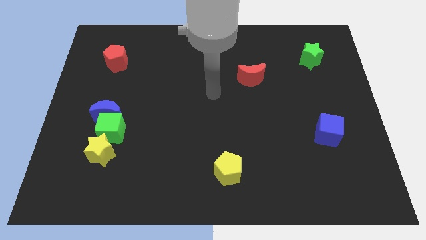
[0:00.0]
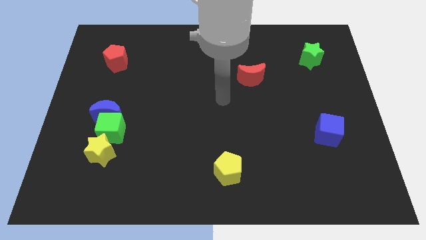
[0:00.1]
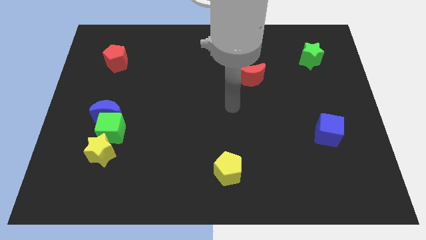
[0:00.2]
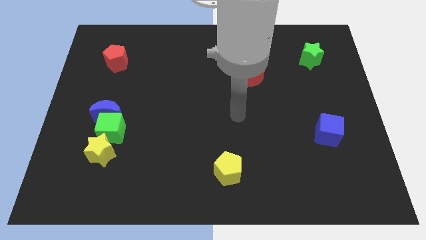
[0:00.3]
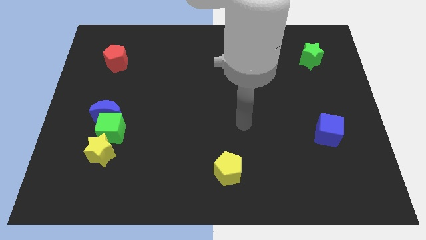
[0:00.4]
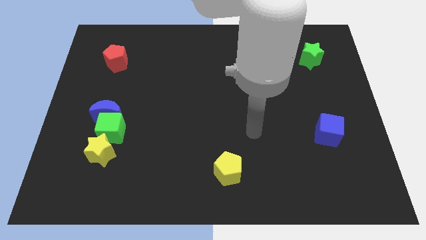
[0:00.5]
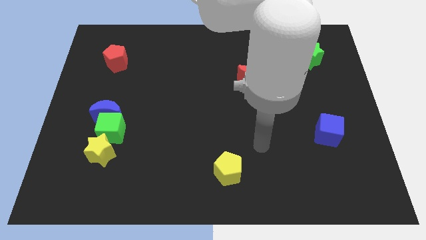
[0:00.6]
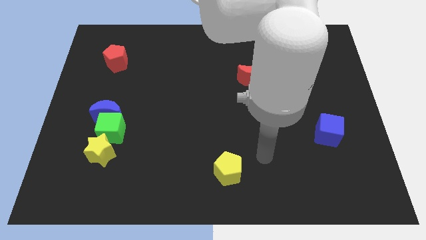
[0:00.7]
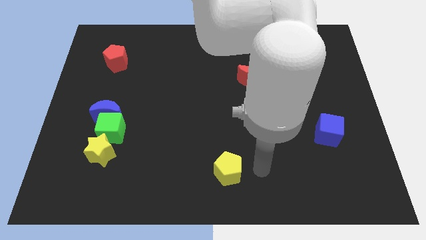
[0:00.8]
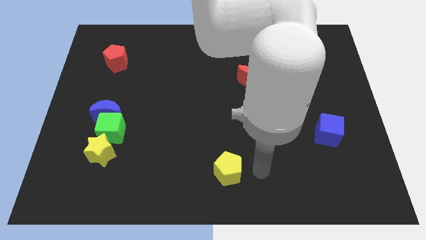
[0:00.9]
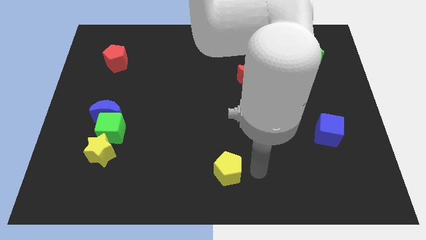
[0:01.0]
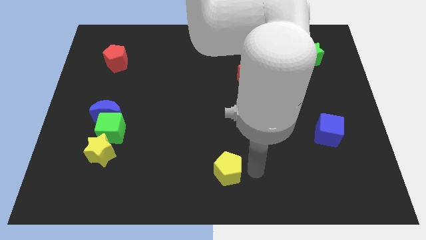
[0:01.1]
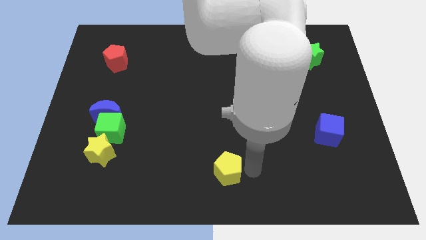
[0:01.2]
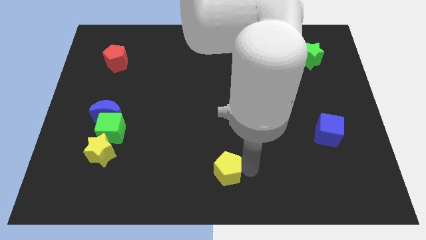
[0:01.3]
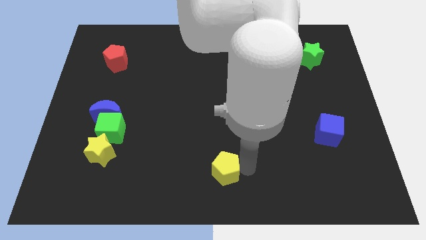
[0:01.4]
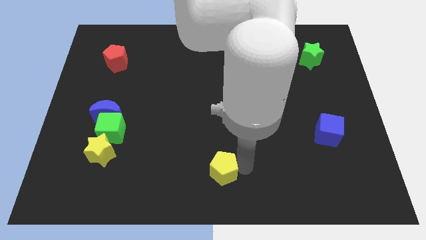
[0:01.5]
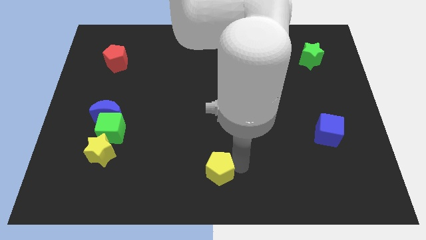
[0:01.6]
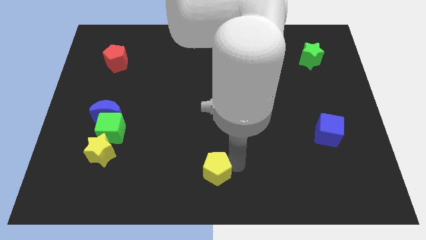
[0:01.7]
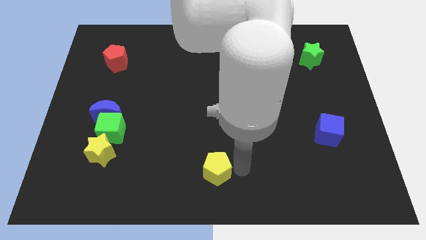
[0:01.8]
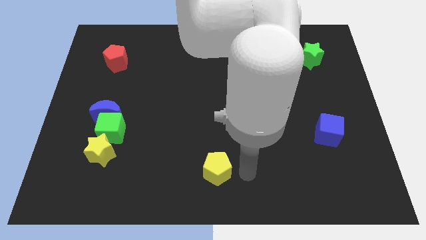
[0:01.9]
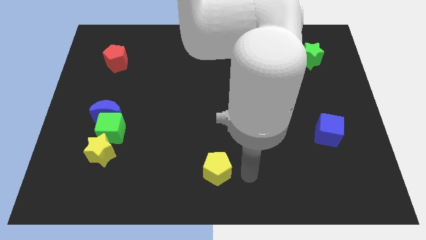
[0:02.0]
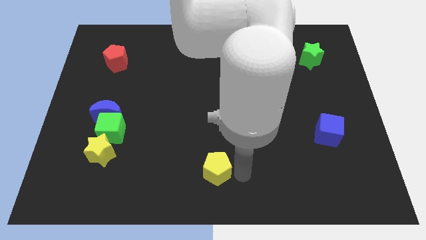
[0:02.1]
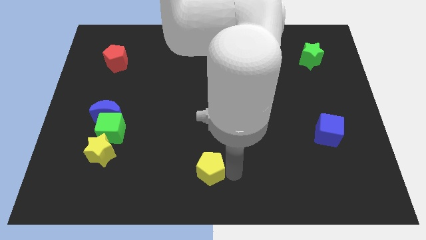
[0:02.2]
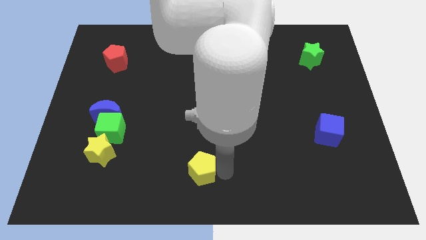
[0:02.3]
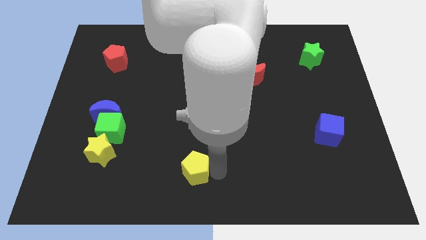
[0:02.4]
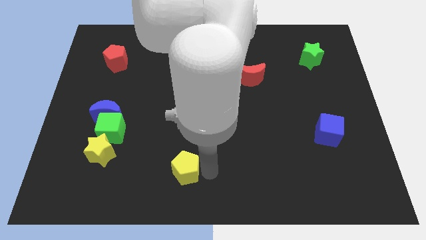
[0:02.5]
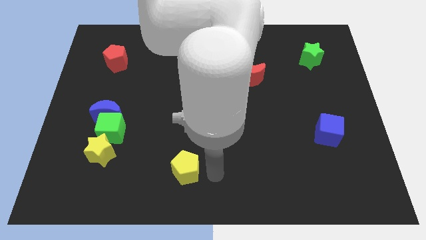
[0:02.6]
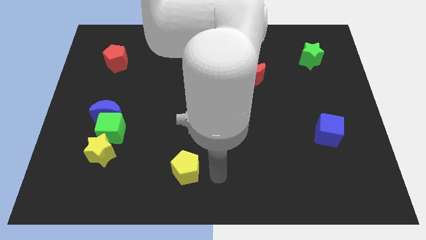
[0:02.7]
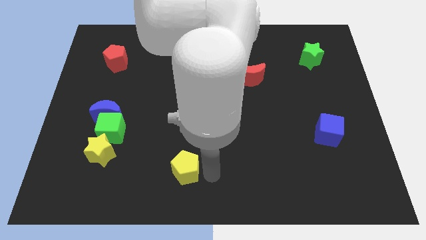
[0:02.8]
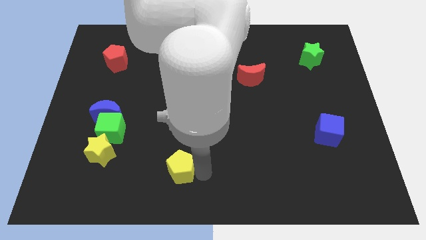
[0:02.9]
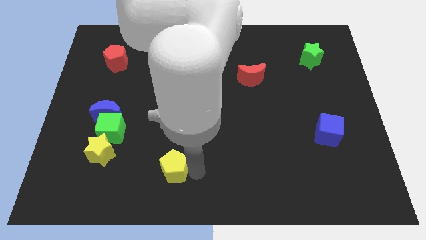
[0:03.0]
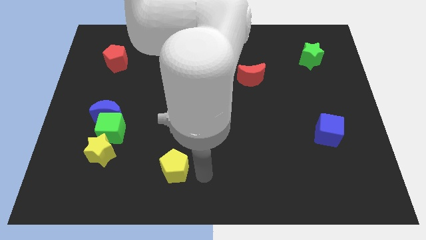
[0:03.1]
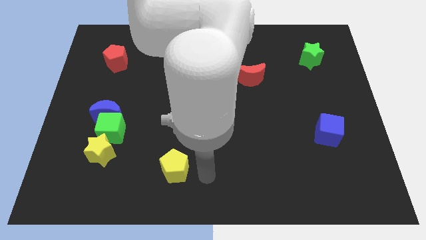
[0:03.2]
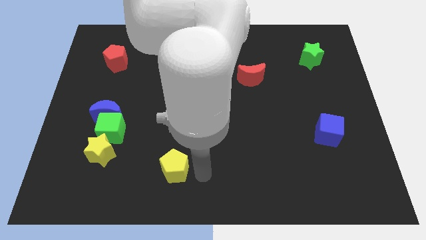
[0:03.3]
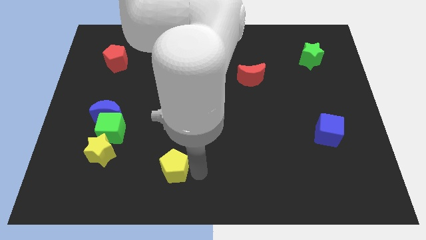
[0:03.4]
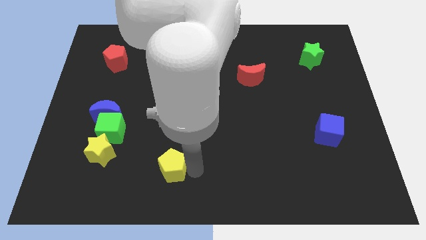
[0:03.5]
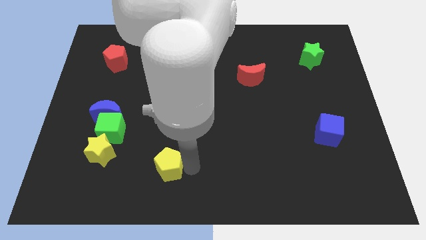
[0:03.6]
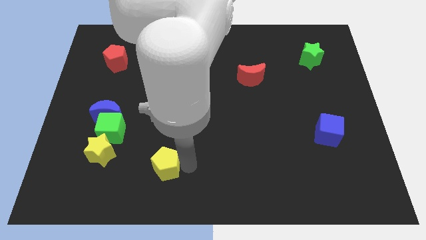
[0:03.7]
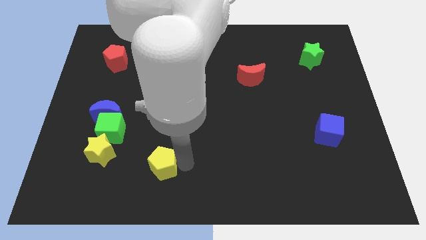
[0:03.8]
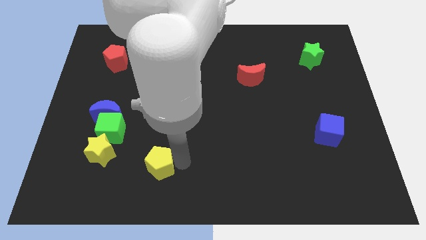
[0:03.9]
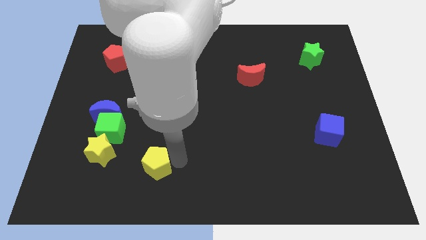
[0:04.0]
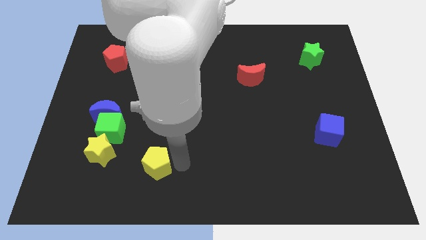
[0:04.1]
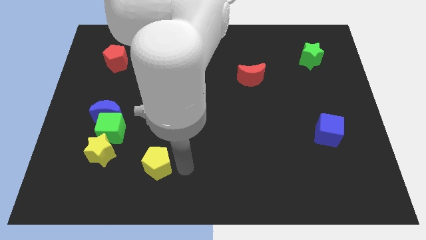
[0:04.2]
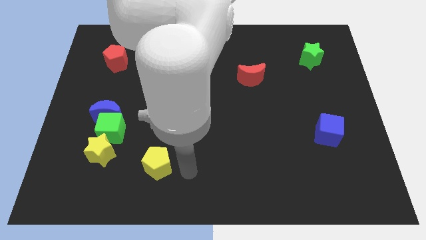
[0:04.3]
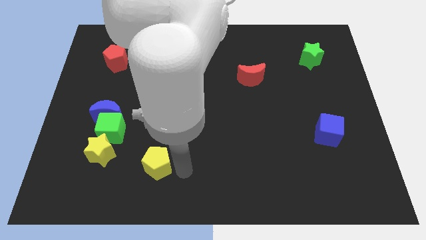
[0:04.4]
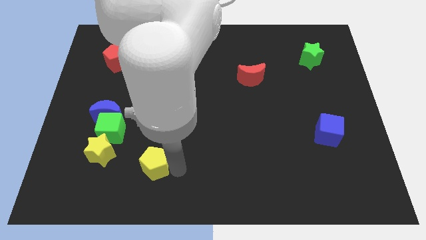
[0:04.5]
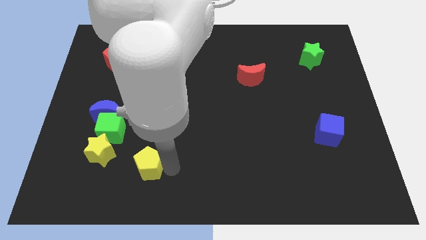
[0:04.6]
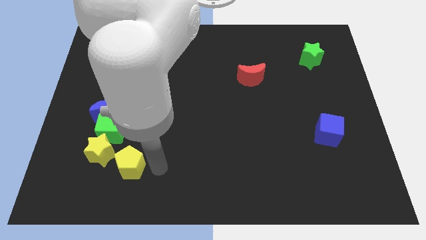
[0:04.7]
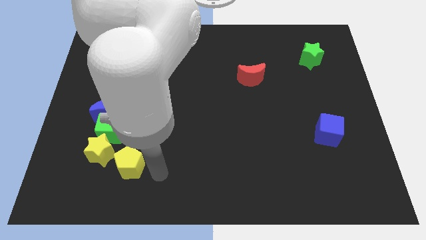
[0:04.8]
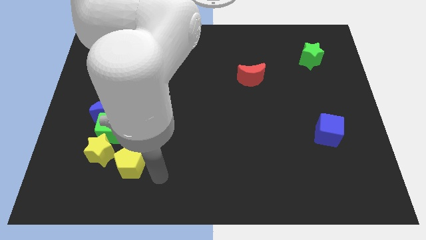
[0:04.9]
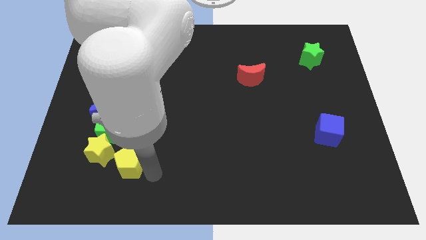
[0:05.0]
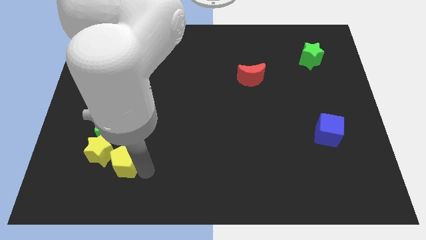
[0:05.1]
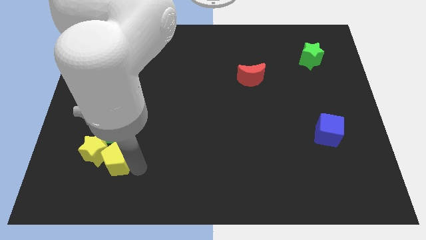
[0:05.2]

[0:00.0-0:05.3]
slide the yellow pentagon to the yellow star

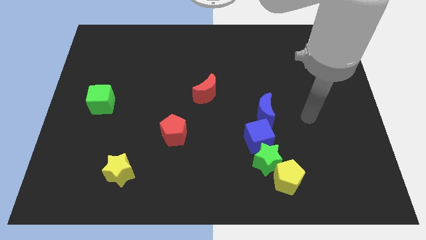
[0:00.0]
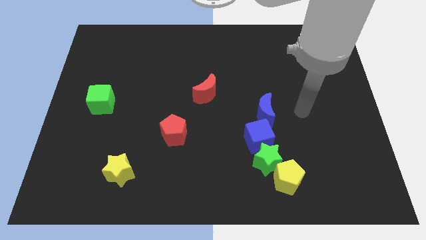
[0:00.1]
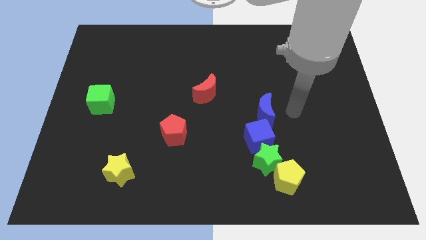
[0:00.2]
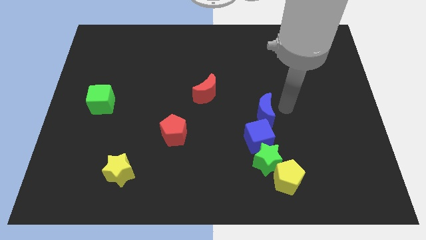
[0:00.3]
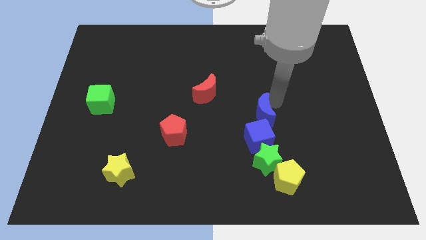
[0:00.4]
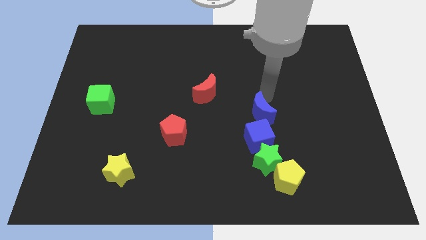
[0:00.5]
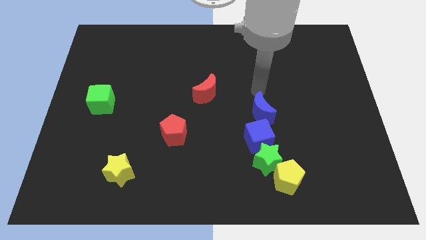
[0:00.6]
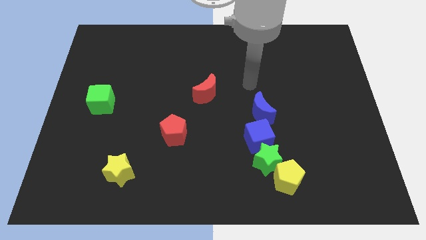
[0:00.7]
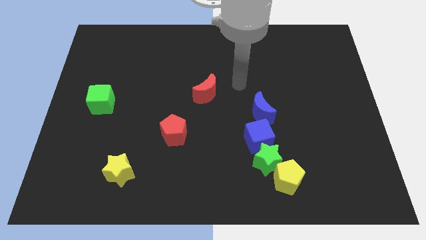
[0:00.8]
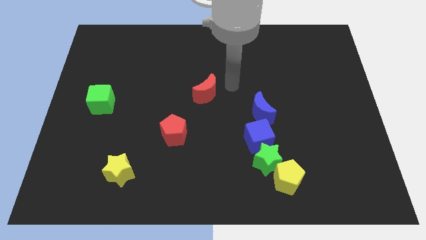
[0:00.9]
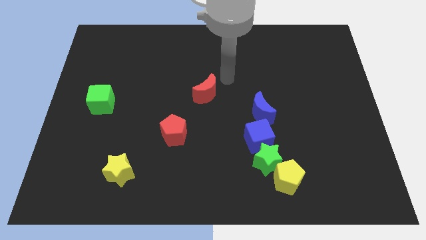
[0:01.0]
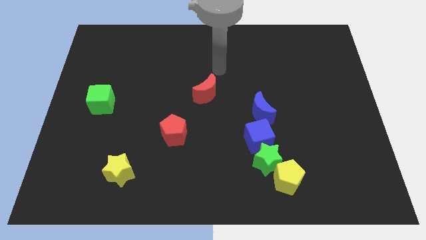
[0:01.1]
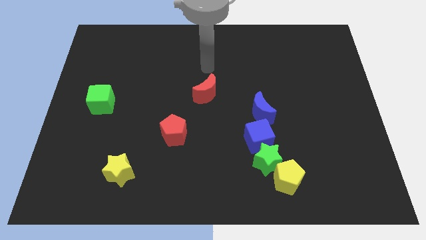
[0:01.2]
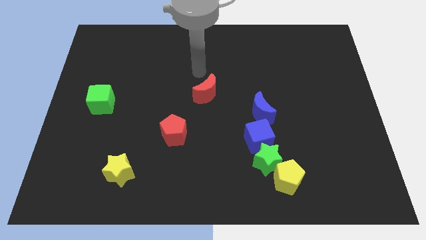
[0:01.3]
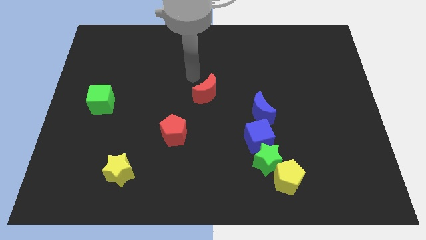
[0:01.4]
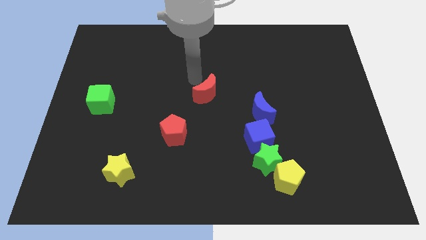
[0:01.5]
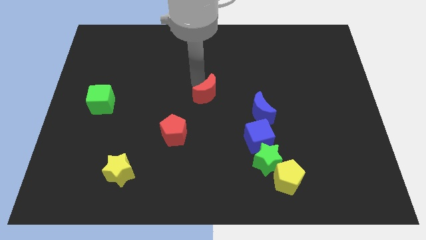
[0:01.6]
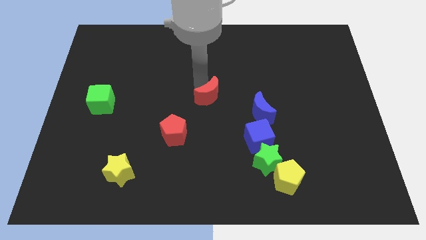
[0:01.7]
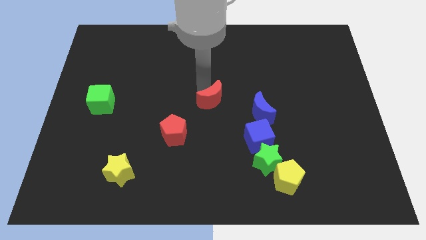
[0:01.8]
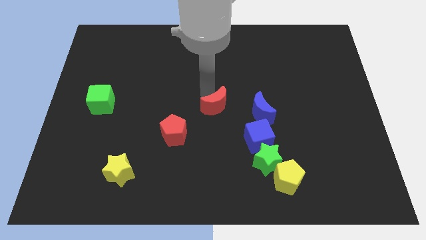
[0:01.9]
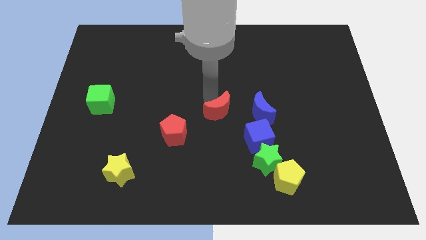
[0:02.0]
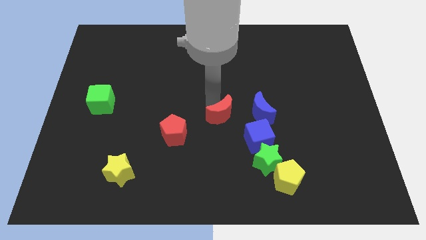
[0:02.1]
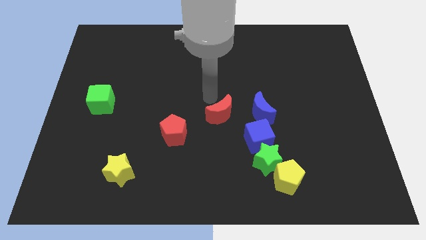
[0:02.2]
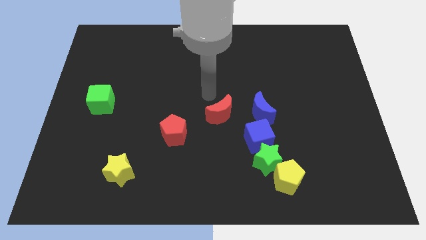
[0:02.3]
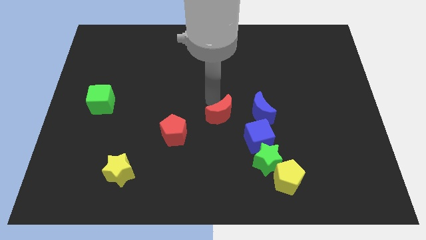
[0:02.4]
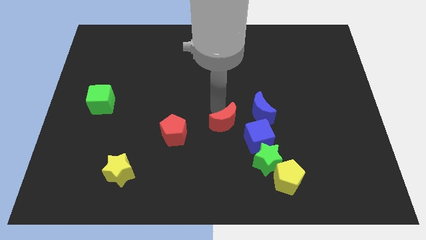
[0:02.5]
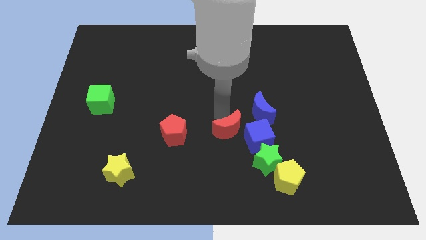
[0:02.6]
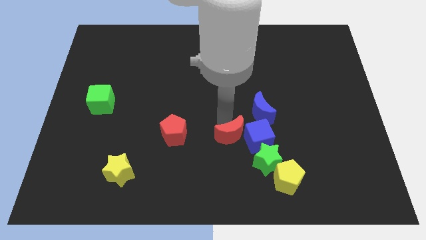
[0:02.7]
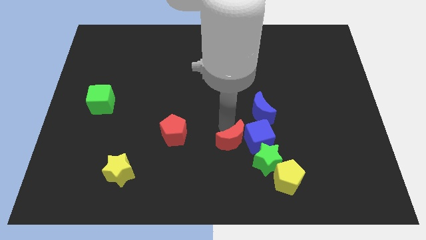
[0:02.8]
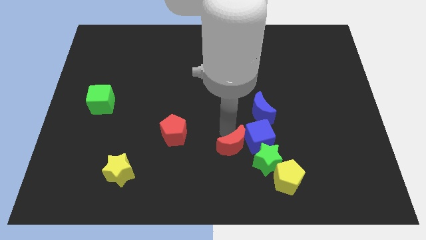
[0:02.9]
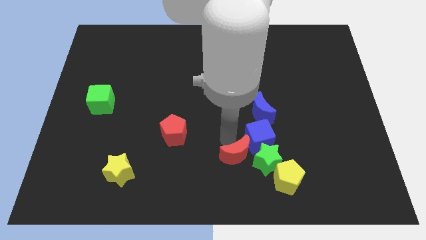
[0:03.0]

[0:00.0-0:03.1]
put the red moon close to the green star
